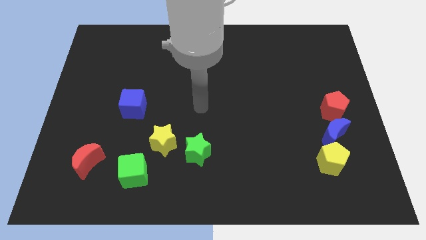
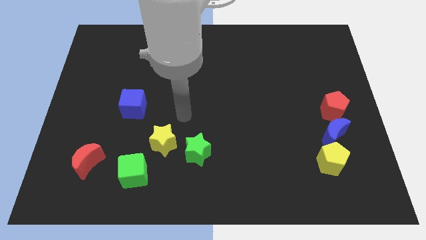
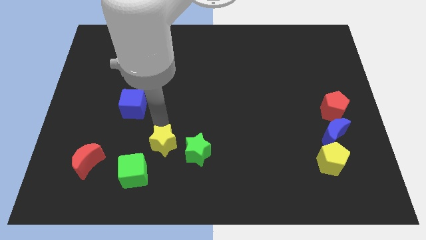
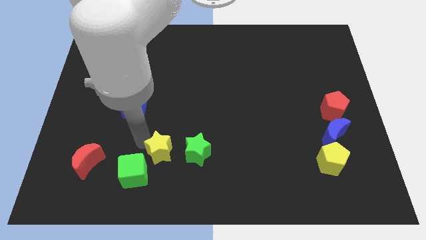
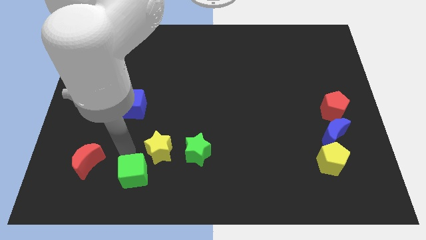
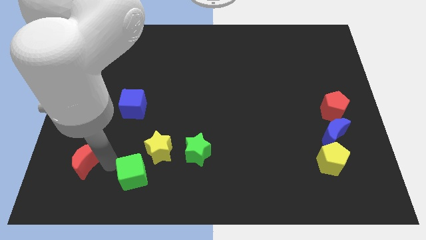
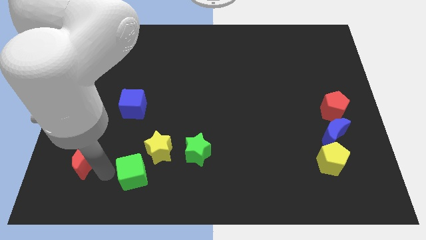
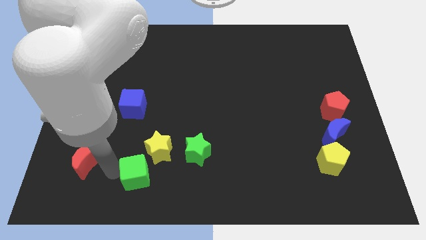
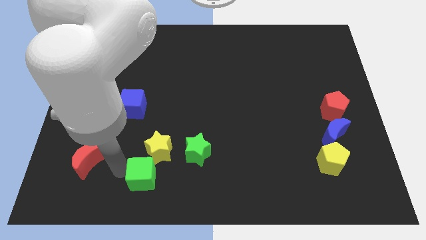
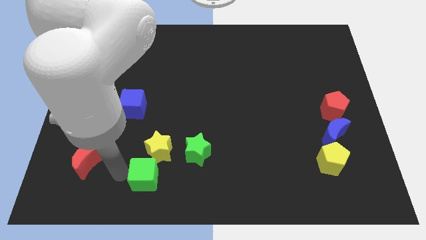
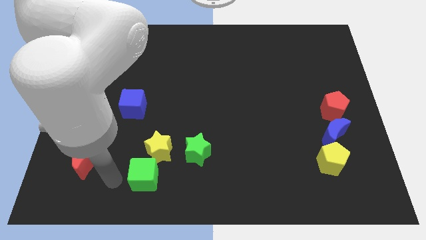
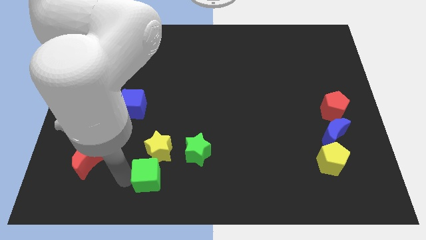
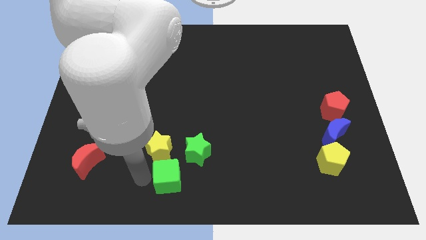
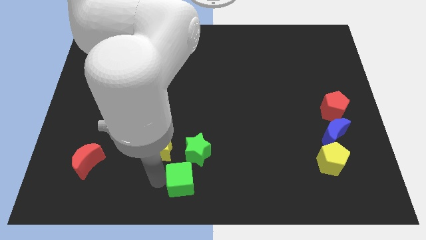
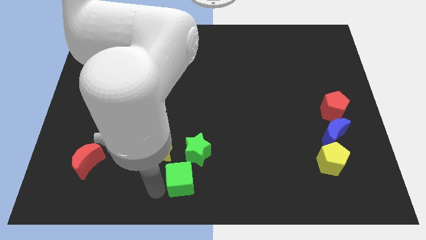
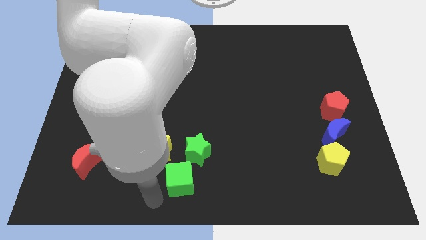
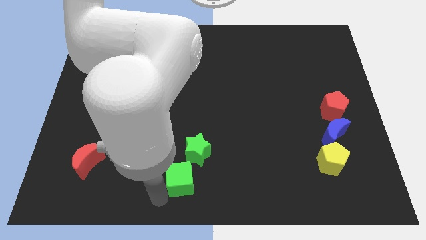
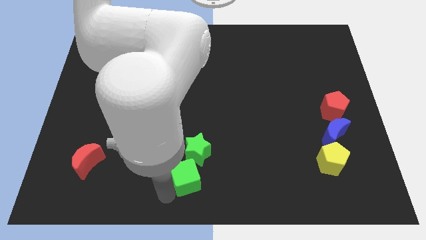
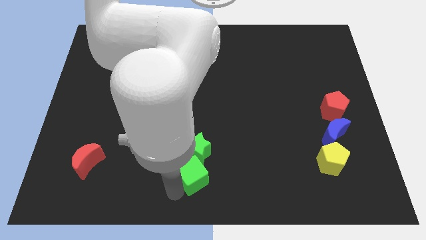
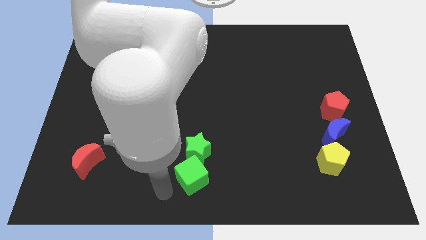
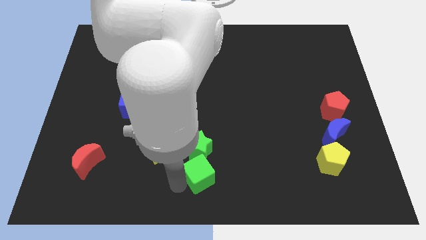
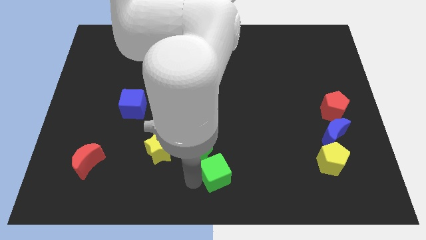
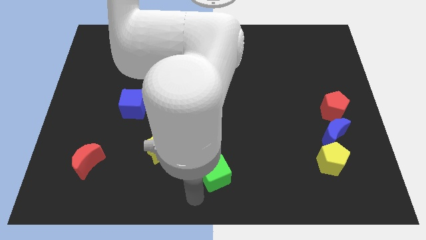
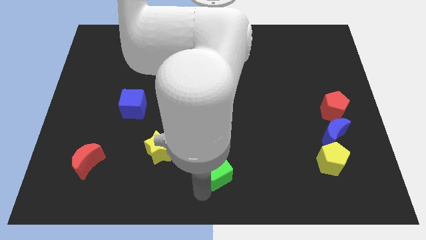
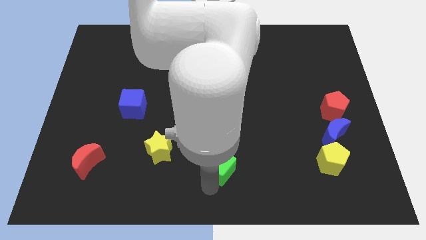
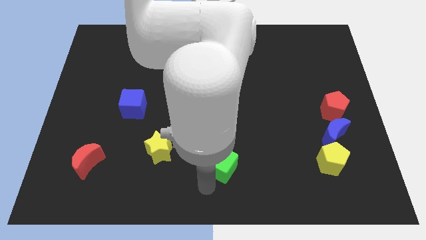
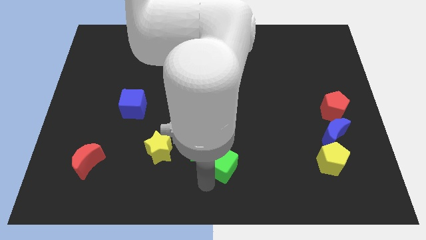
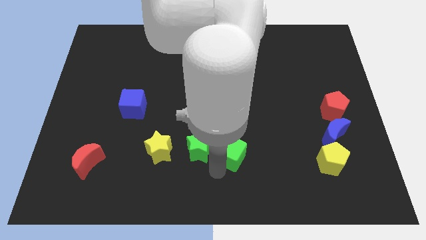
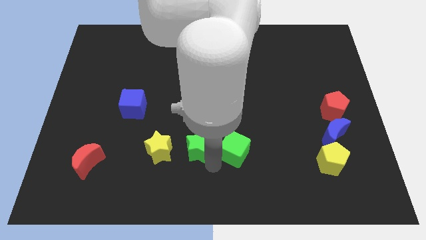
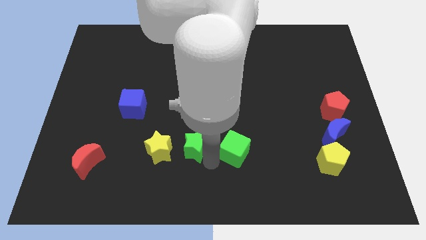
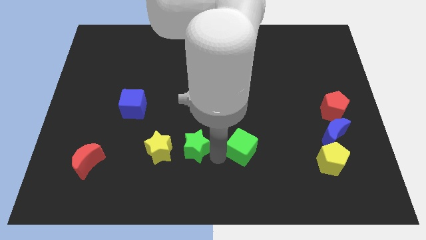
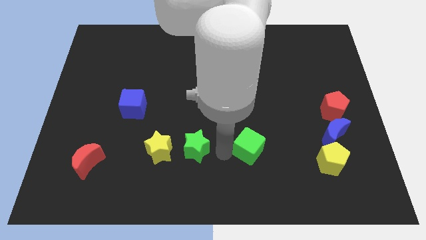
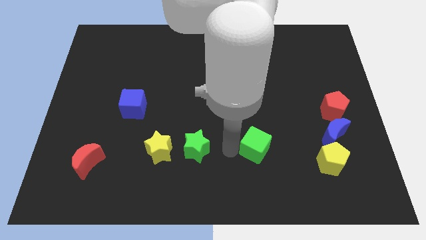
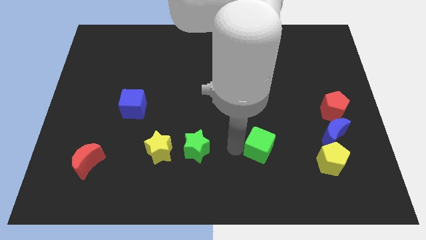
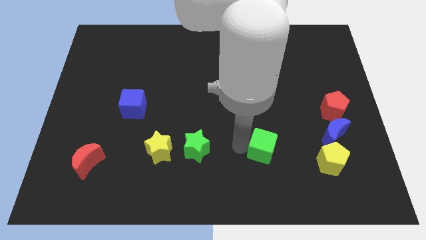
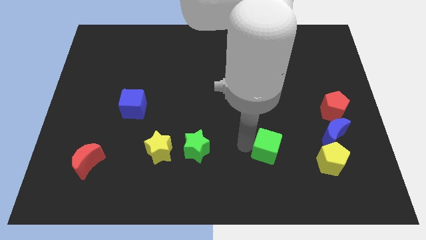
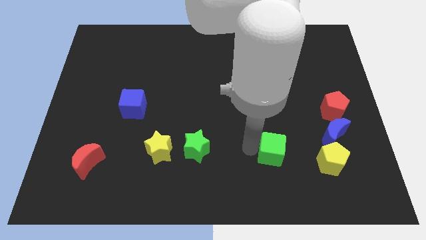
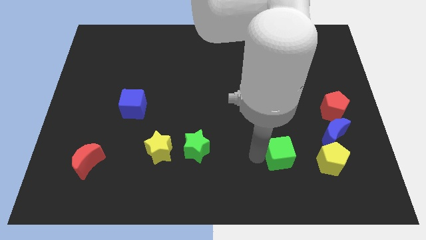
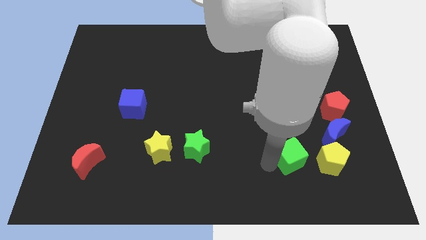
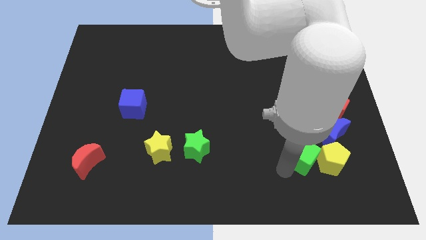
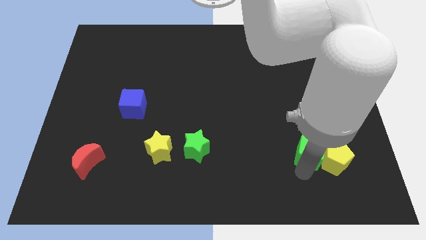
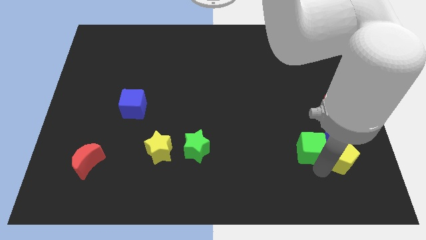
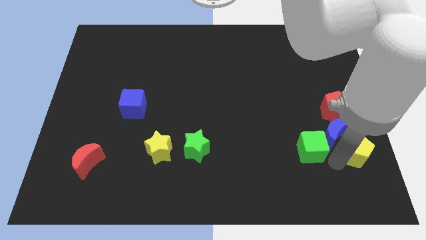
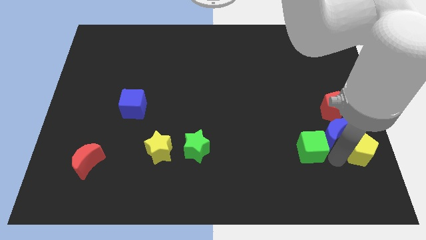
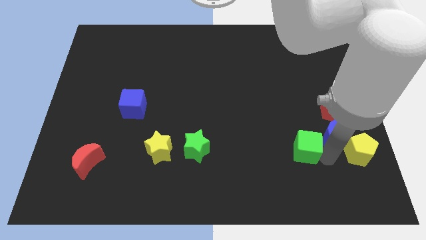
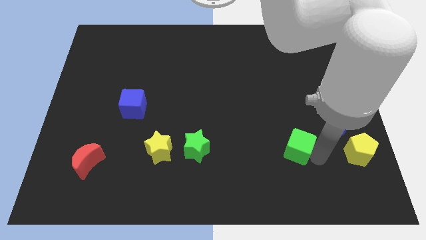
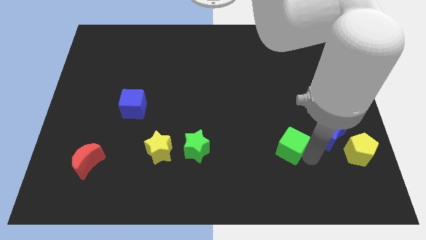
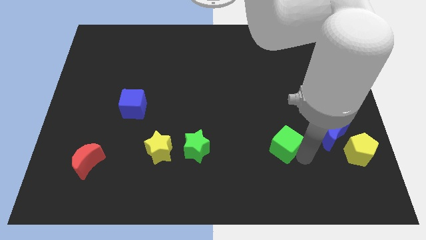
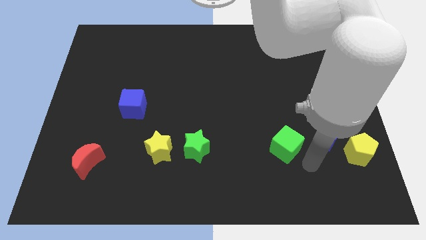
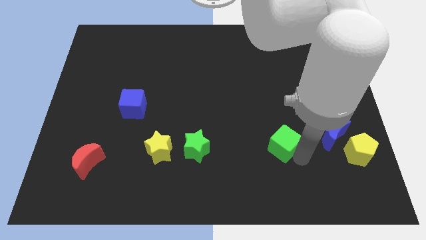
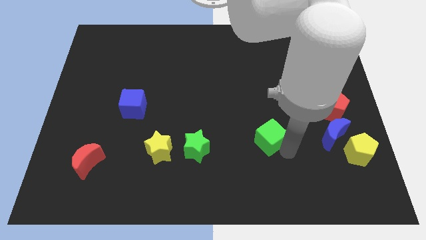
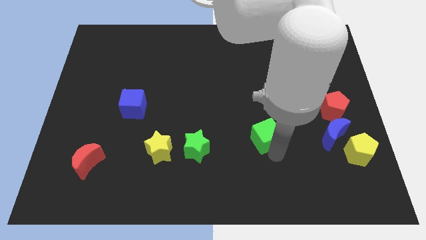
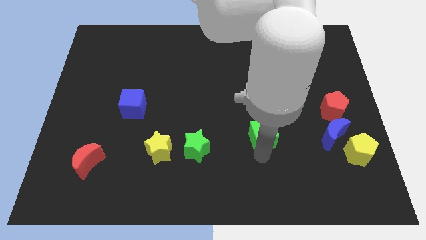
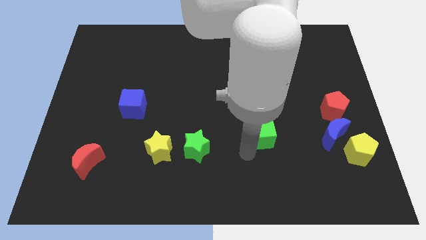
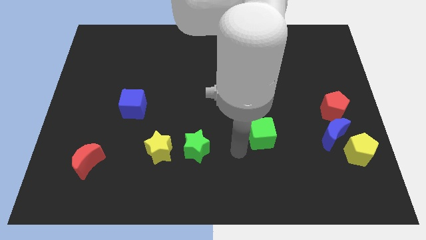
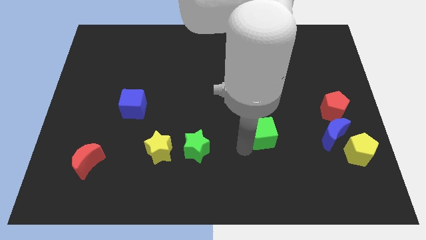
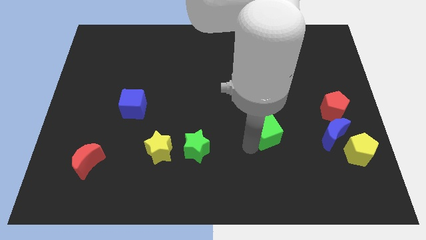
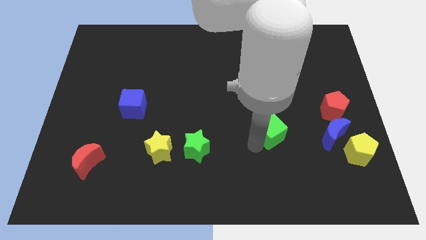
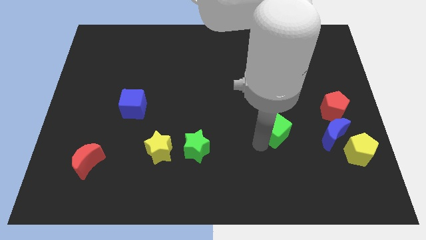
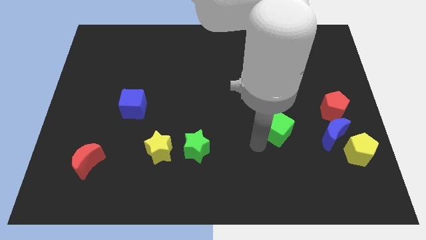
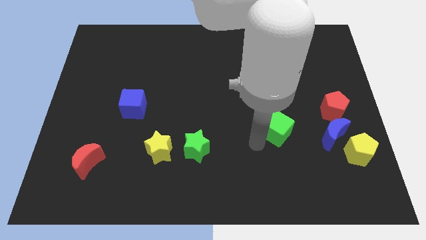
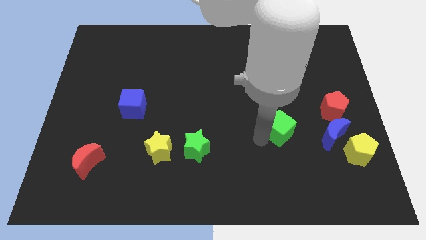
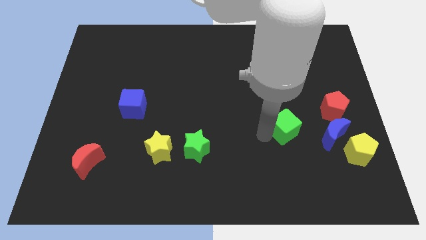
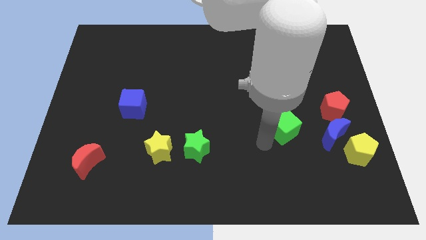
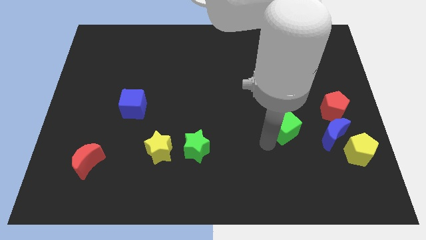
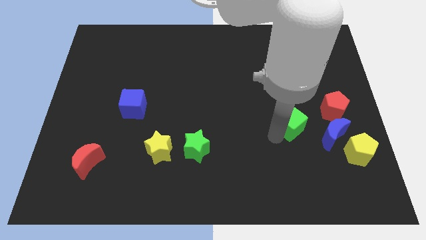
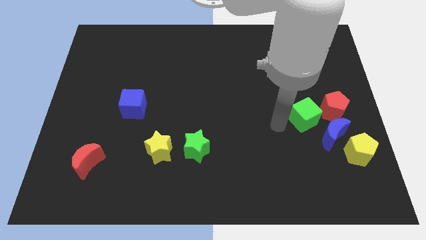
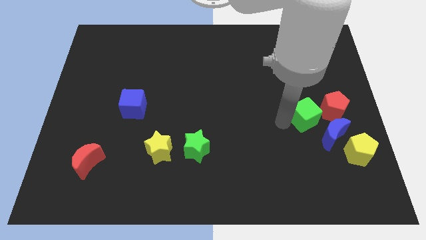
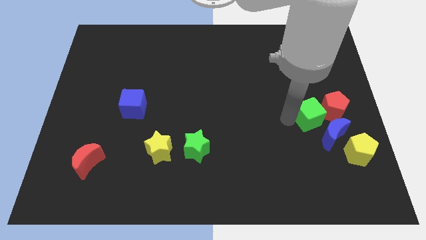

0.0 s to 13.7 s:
slide the green cube to the red pentagon

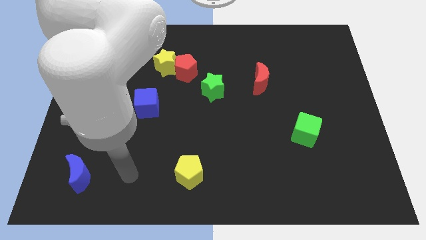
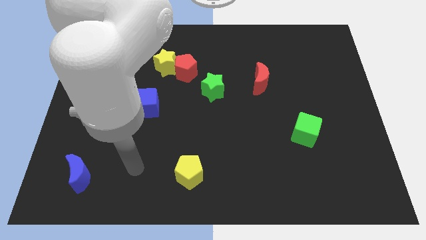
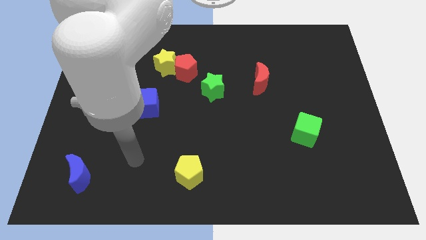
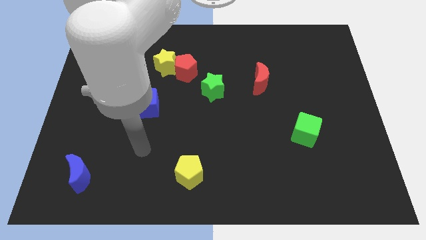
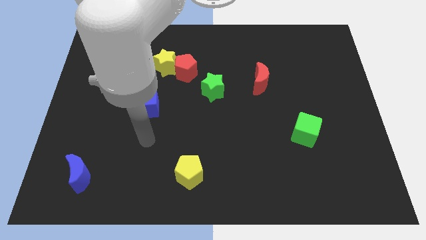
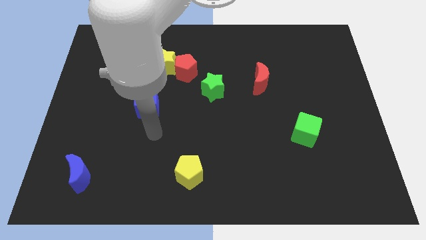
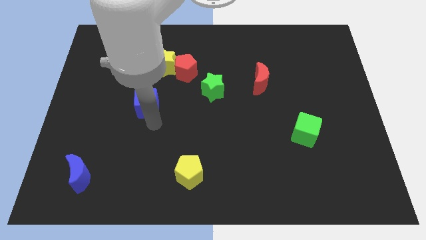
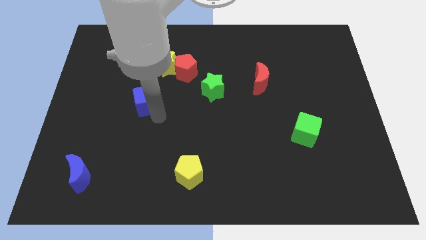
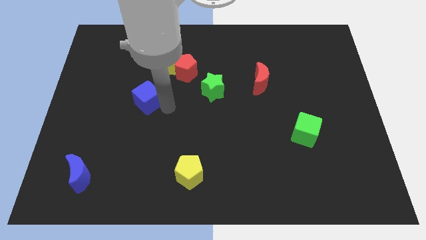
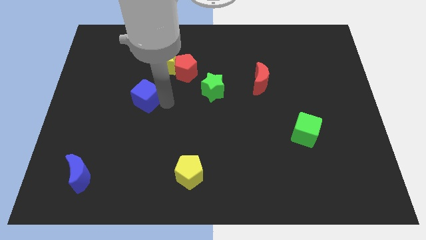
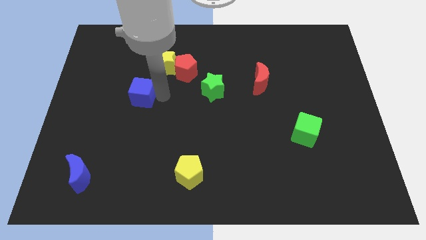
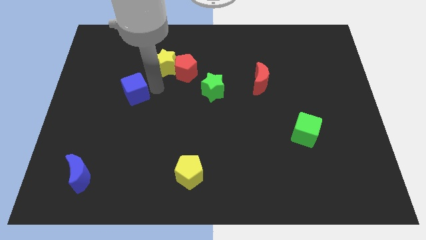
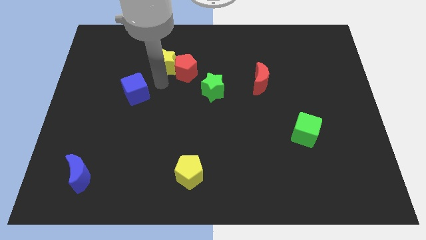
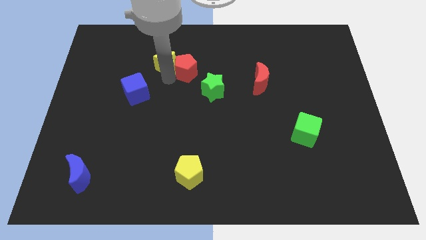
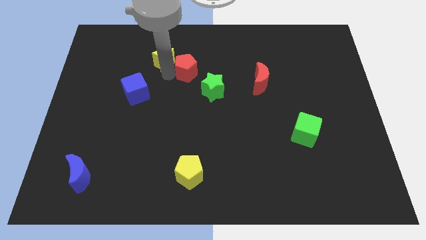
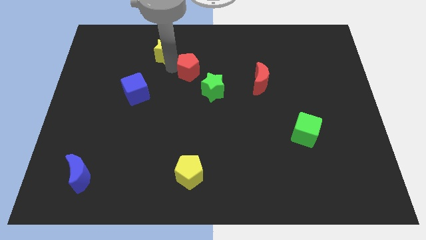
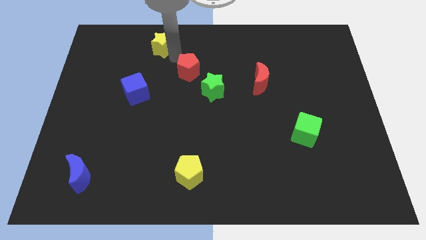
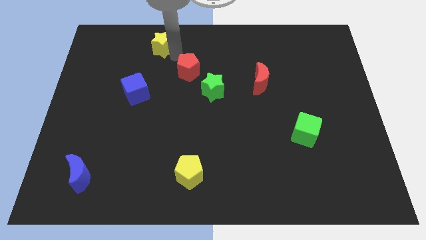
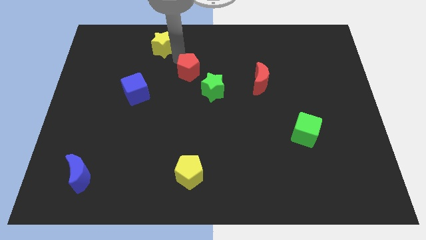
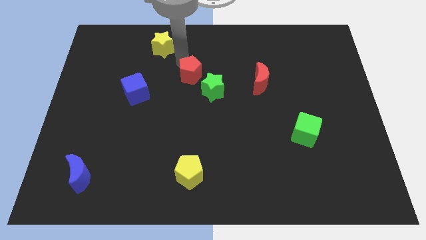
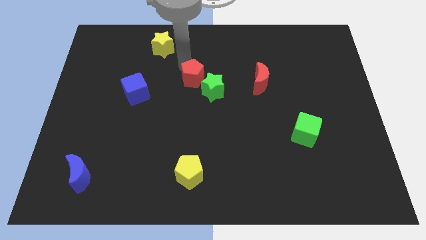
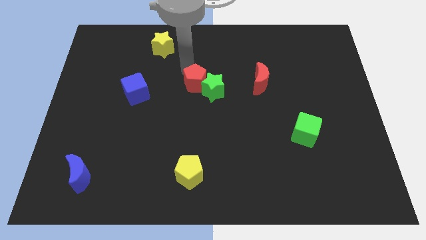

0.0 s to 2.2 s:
push the red pentagon to the green star
